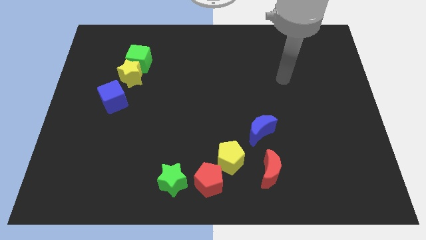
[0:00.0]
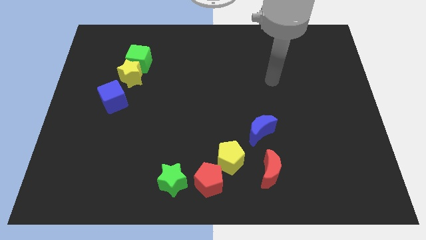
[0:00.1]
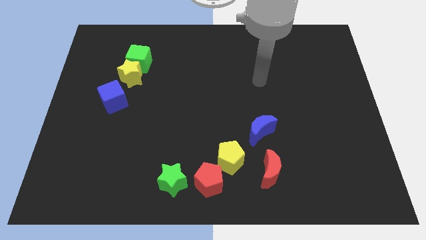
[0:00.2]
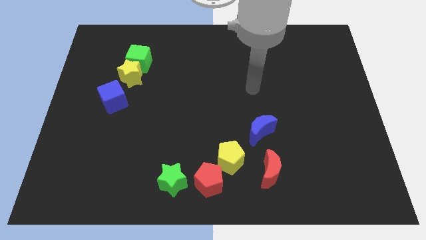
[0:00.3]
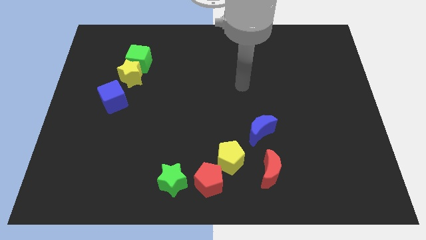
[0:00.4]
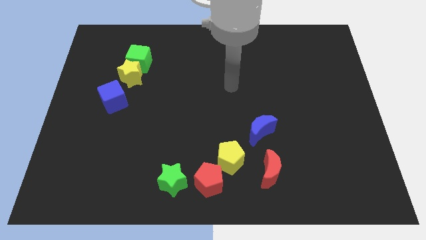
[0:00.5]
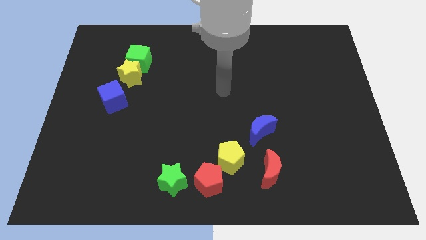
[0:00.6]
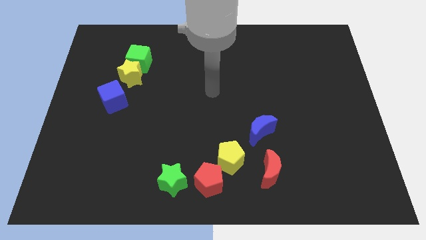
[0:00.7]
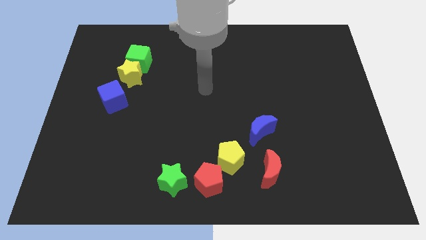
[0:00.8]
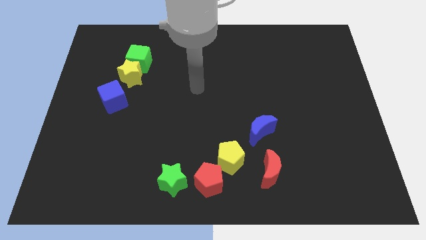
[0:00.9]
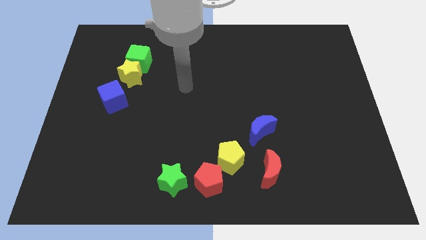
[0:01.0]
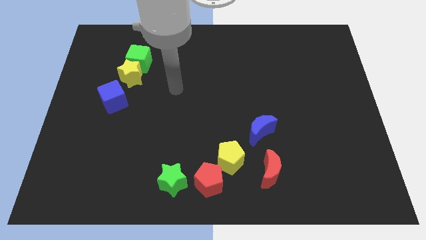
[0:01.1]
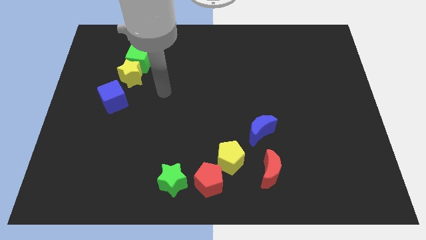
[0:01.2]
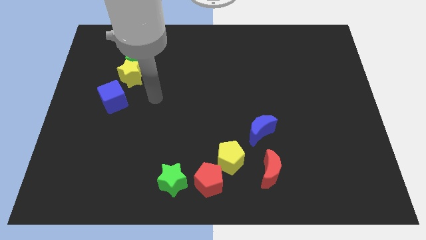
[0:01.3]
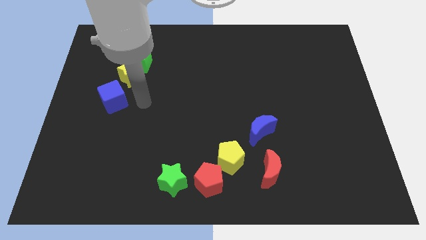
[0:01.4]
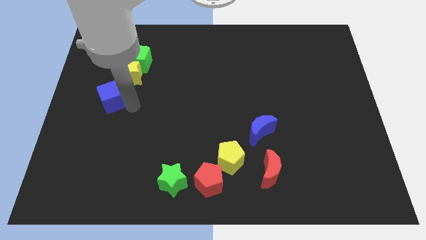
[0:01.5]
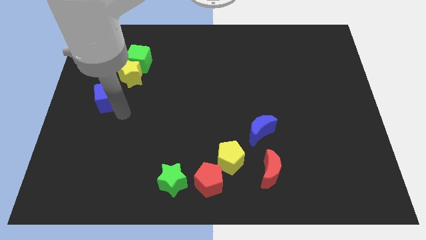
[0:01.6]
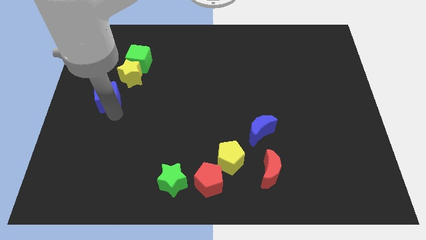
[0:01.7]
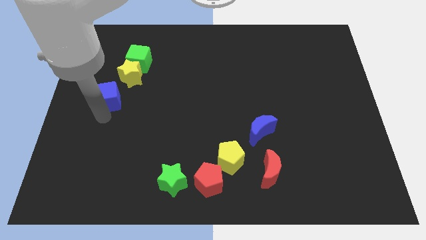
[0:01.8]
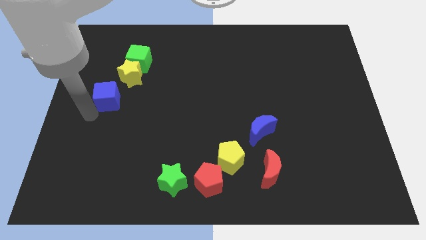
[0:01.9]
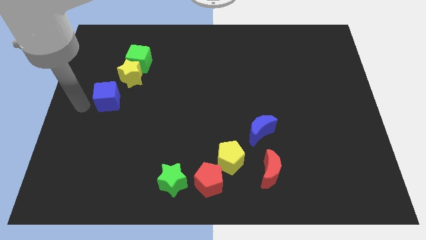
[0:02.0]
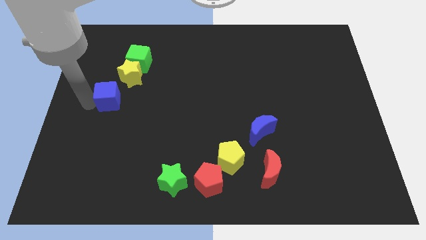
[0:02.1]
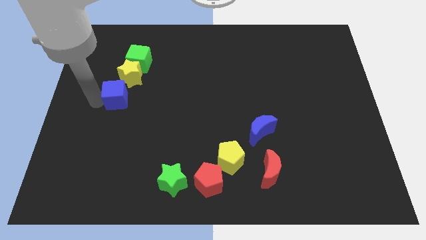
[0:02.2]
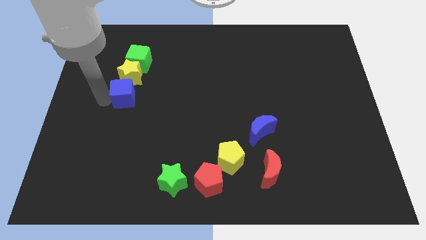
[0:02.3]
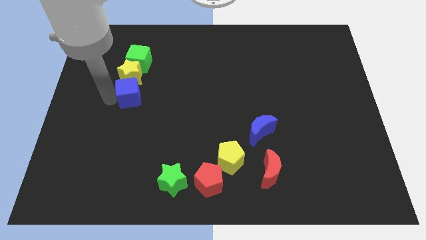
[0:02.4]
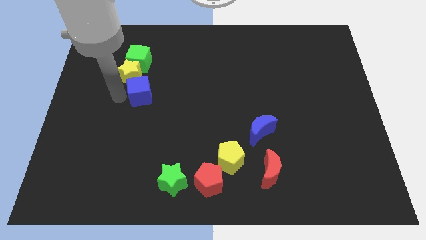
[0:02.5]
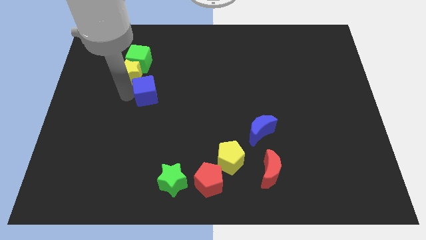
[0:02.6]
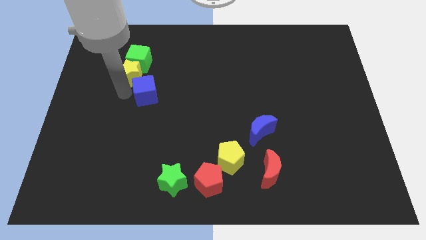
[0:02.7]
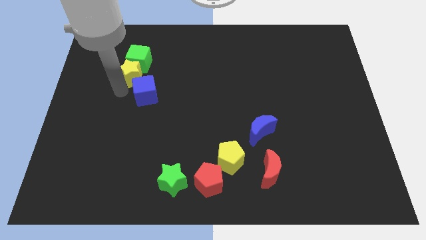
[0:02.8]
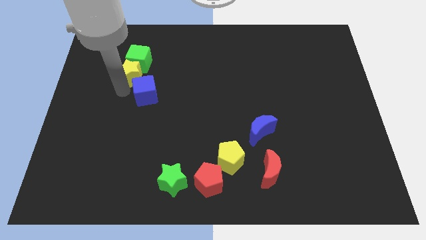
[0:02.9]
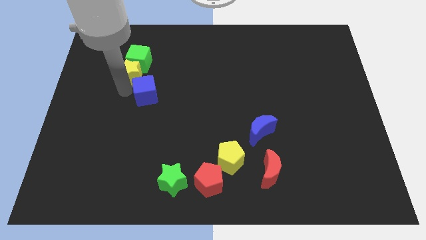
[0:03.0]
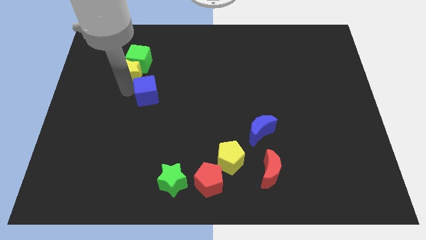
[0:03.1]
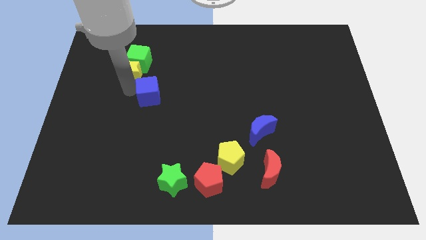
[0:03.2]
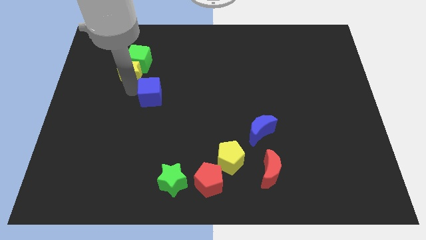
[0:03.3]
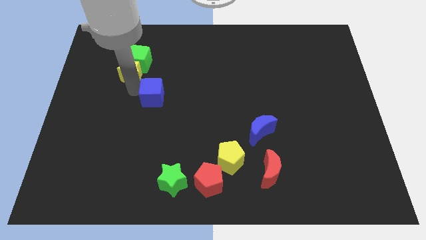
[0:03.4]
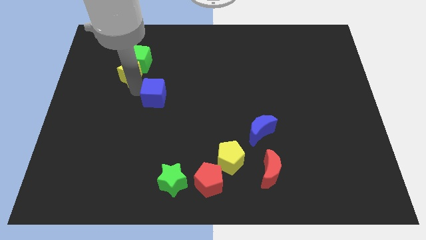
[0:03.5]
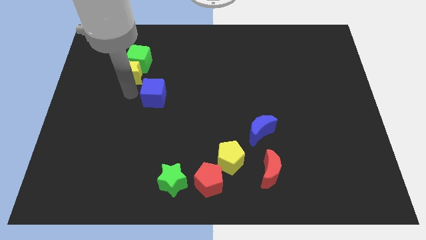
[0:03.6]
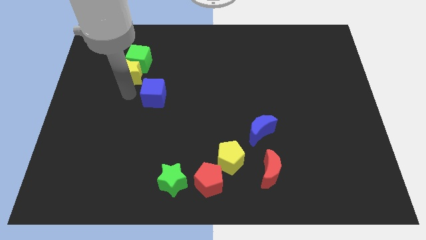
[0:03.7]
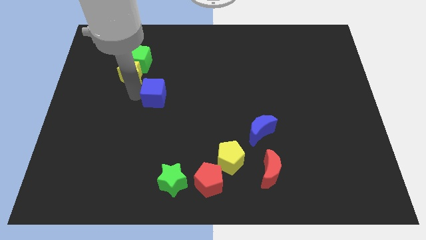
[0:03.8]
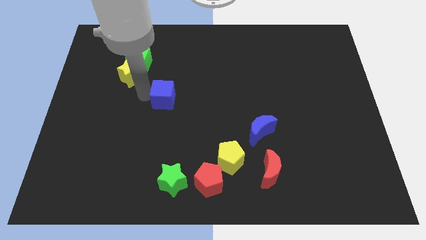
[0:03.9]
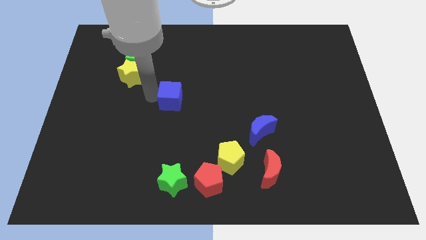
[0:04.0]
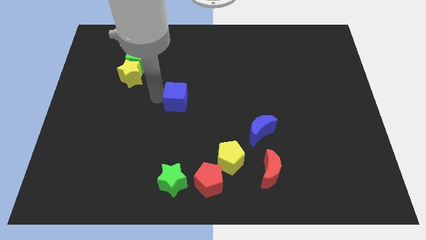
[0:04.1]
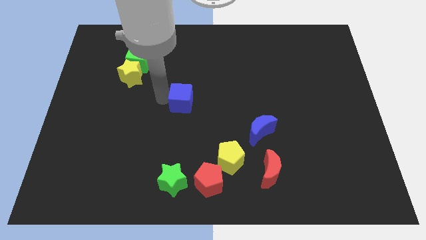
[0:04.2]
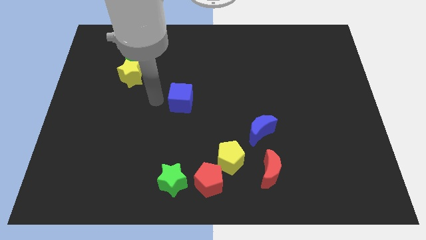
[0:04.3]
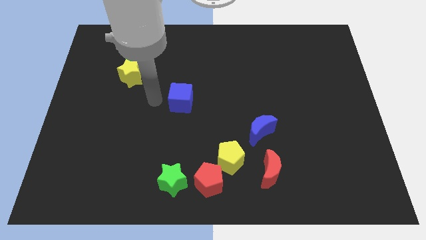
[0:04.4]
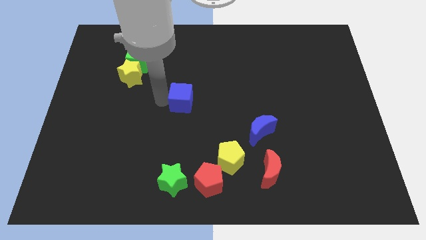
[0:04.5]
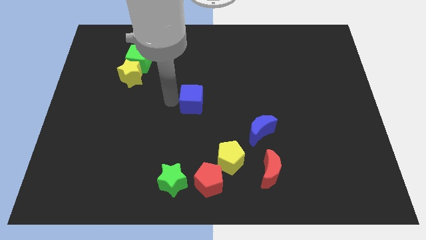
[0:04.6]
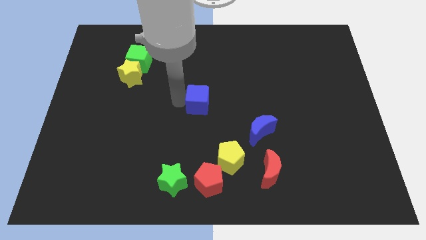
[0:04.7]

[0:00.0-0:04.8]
slide the blue cube right

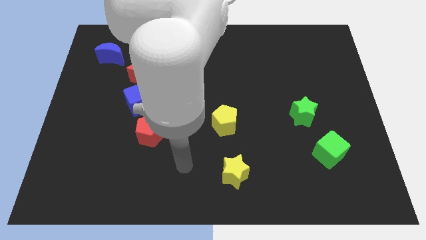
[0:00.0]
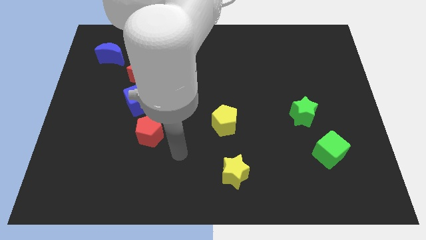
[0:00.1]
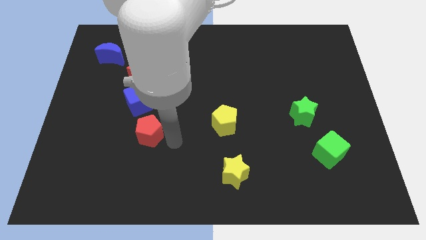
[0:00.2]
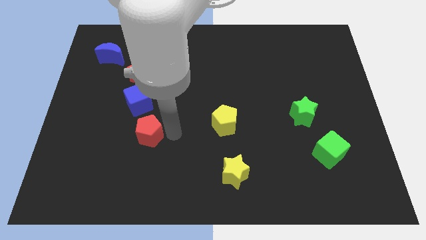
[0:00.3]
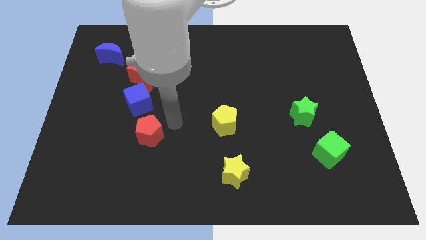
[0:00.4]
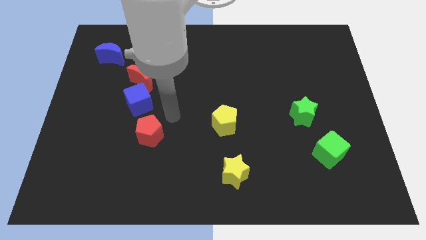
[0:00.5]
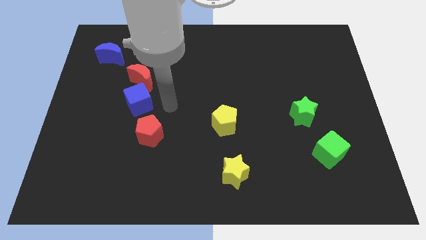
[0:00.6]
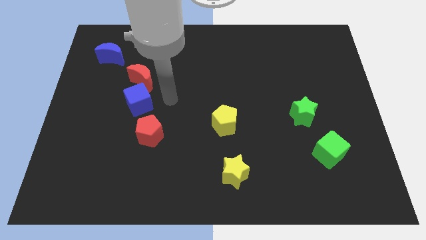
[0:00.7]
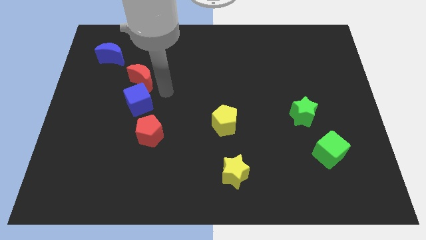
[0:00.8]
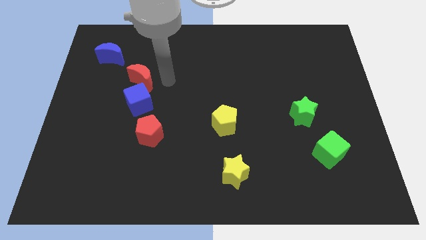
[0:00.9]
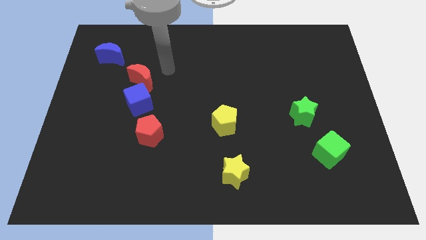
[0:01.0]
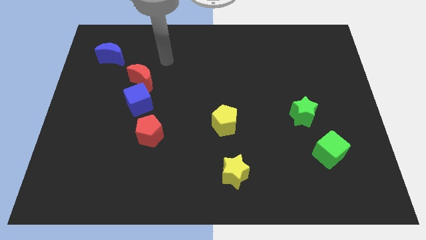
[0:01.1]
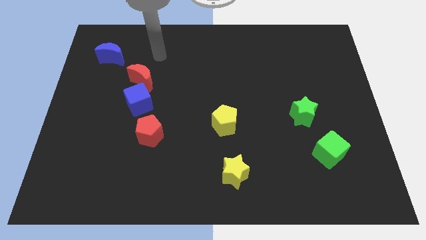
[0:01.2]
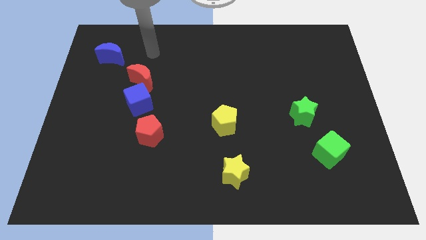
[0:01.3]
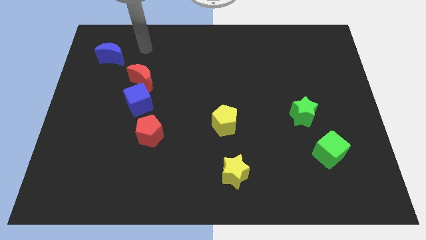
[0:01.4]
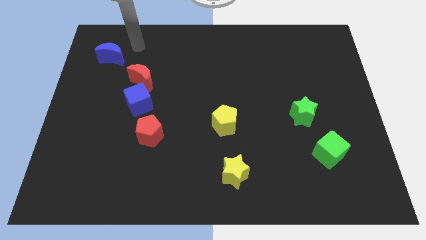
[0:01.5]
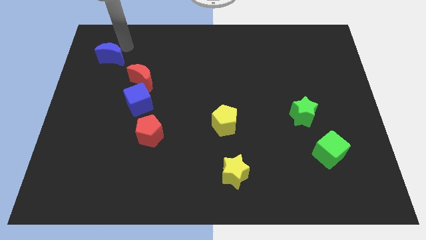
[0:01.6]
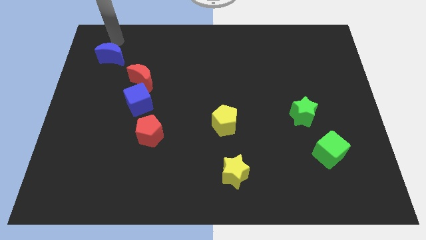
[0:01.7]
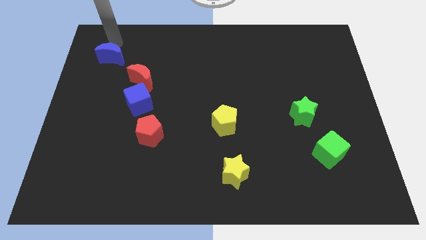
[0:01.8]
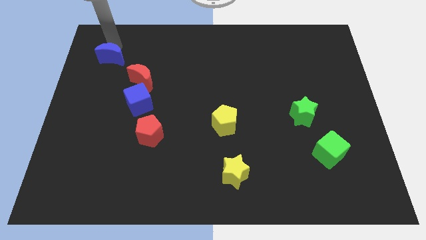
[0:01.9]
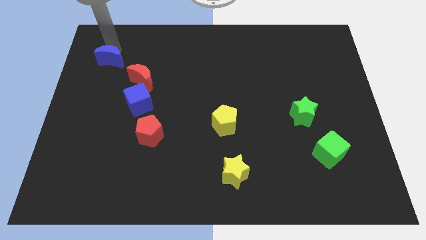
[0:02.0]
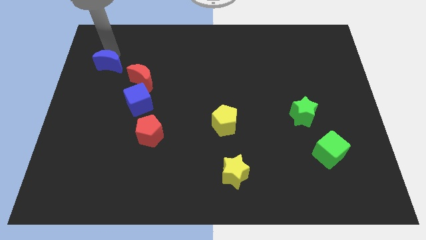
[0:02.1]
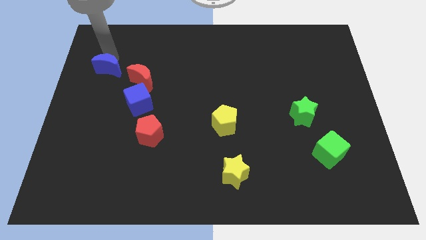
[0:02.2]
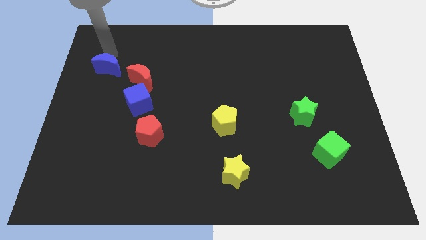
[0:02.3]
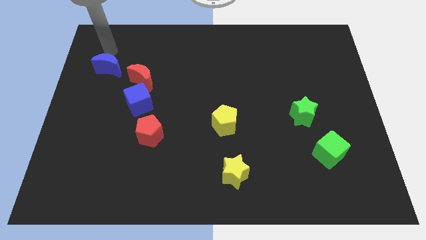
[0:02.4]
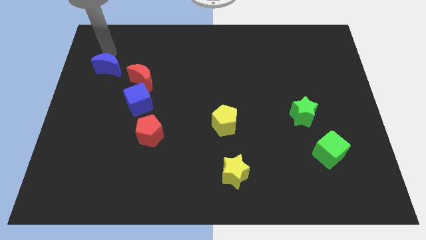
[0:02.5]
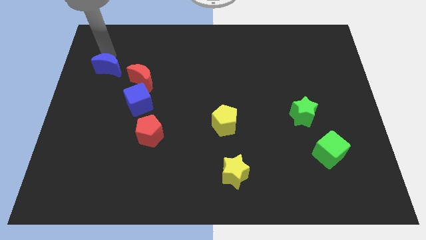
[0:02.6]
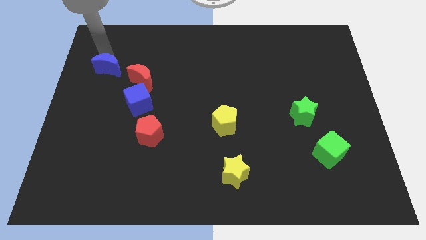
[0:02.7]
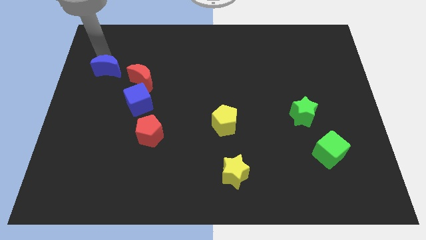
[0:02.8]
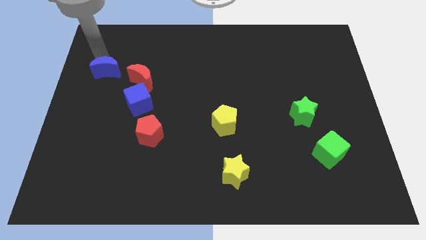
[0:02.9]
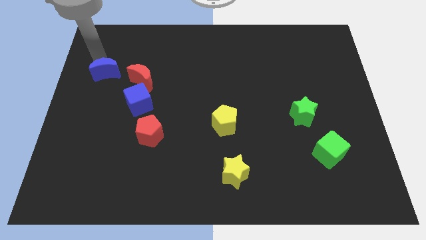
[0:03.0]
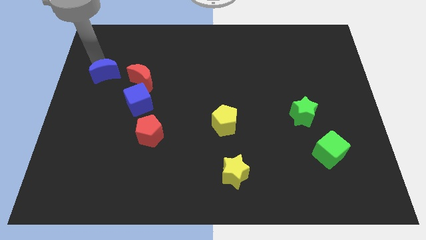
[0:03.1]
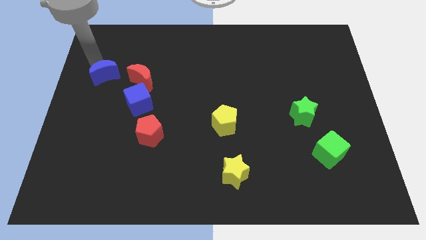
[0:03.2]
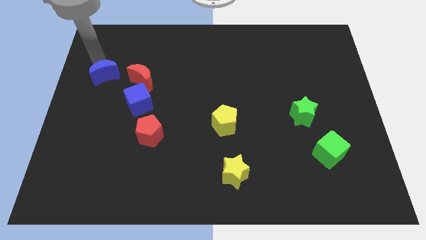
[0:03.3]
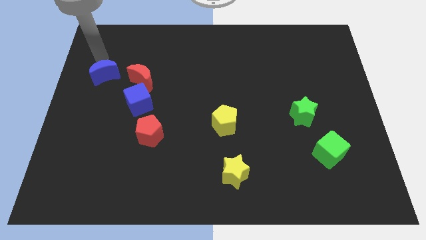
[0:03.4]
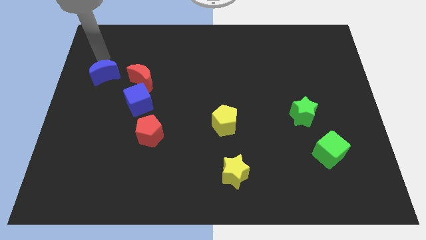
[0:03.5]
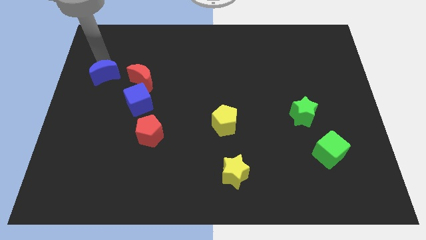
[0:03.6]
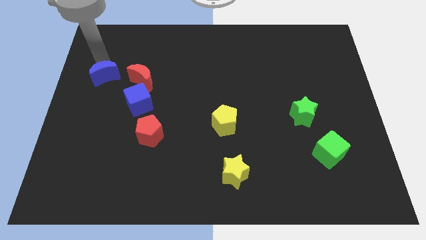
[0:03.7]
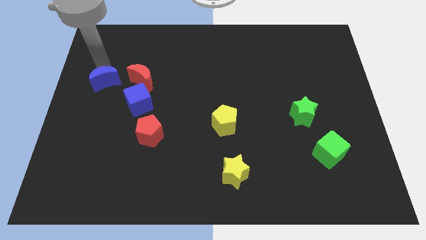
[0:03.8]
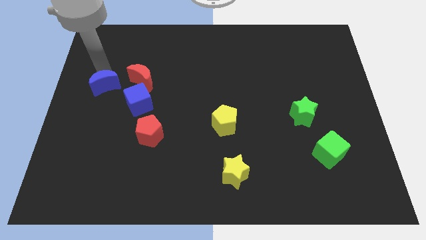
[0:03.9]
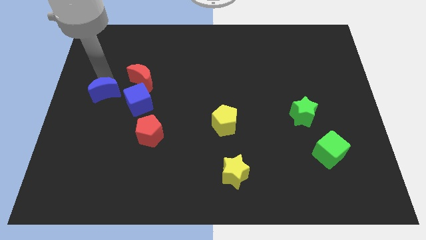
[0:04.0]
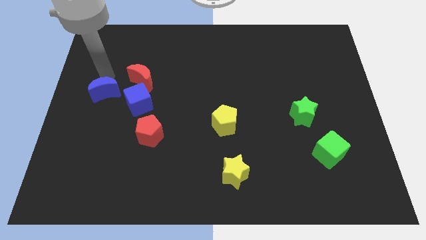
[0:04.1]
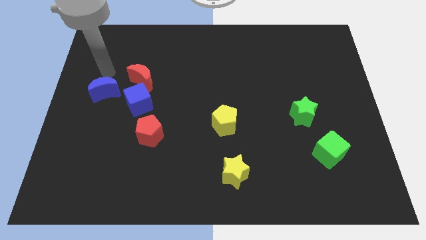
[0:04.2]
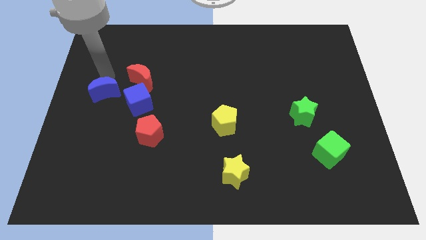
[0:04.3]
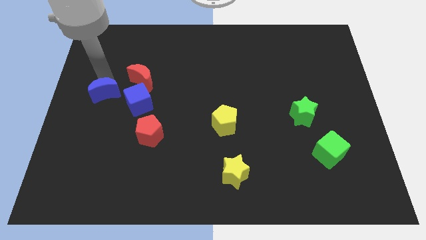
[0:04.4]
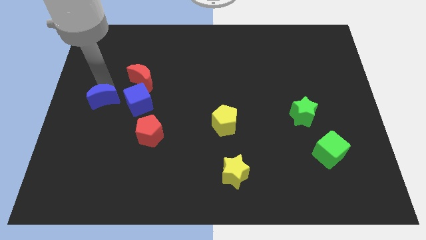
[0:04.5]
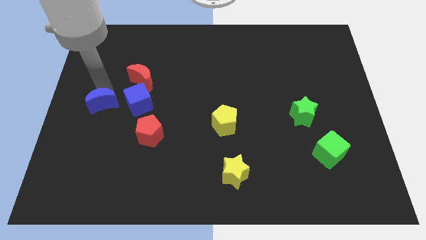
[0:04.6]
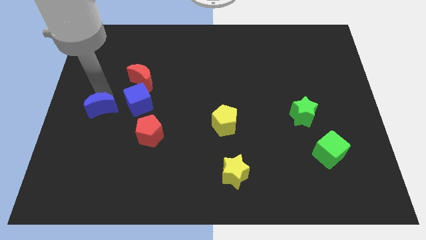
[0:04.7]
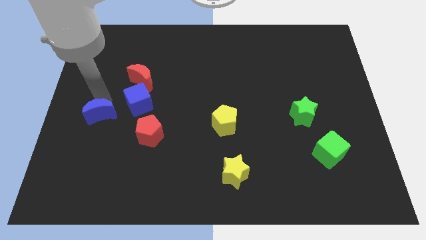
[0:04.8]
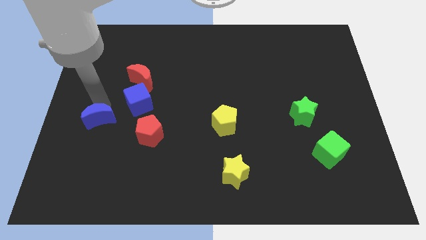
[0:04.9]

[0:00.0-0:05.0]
slide the blue moon downwards
